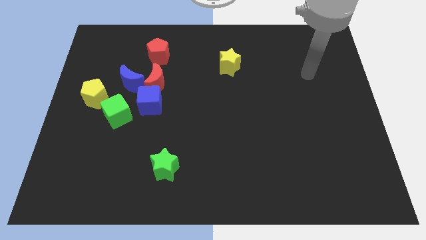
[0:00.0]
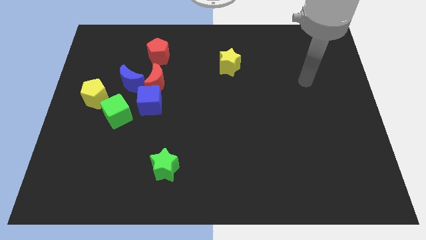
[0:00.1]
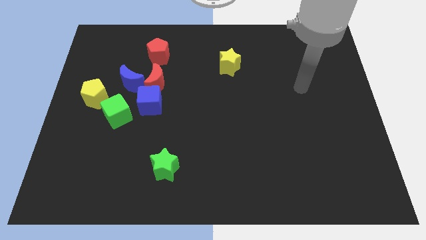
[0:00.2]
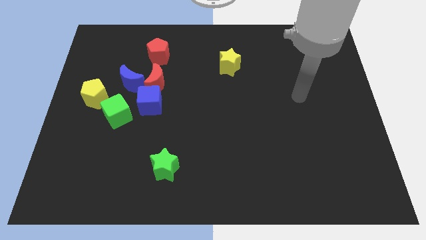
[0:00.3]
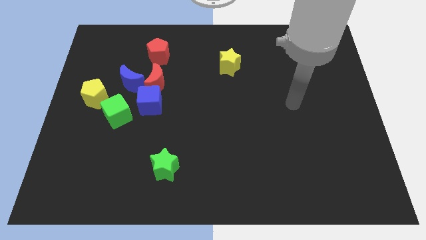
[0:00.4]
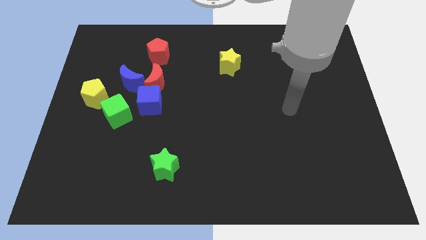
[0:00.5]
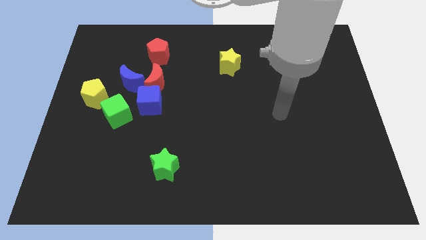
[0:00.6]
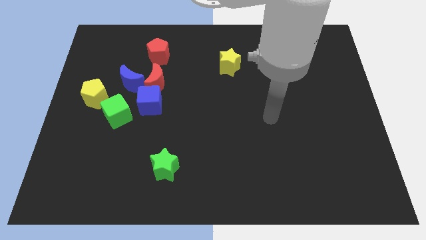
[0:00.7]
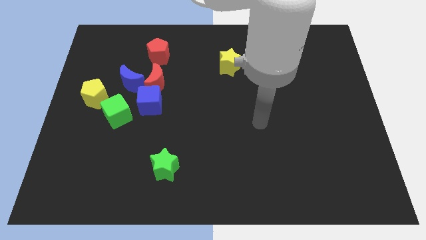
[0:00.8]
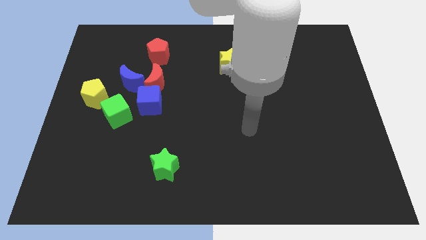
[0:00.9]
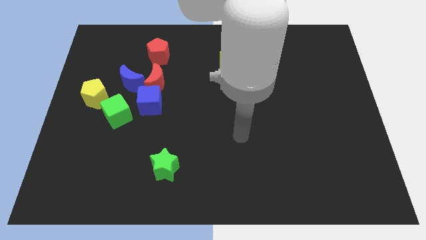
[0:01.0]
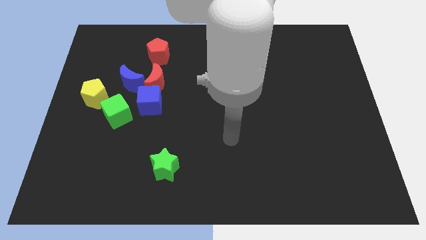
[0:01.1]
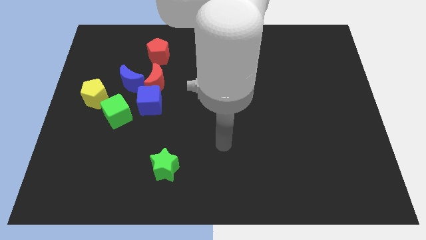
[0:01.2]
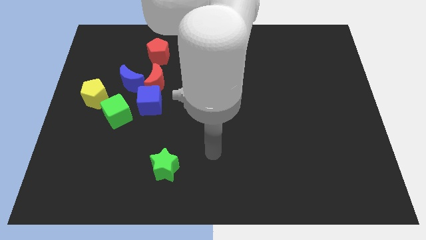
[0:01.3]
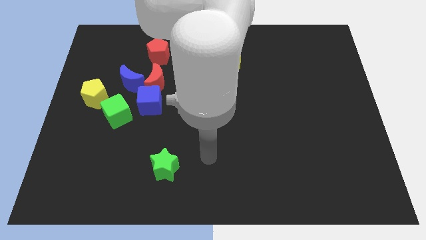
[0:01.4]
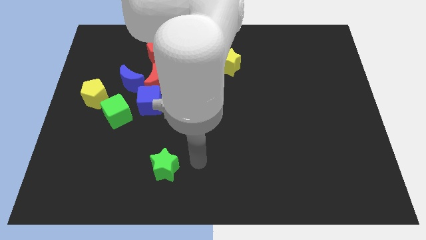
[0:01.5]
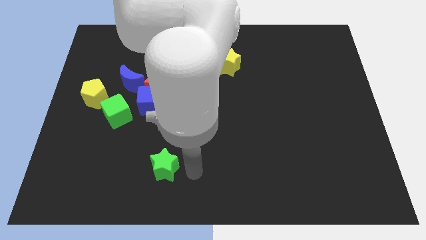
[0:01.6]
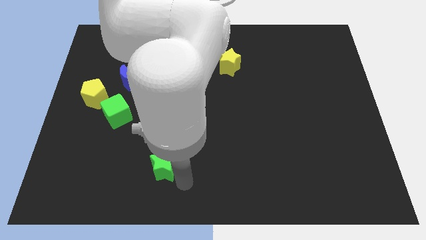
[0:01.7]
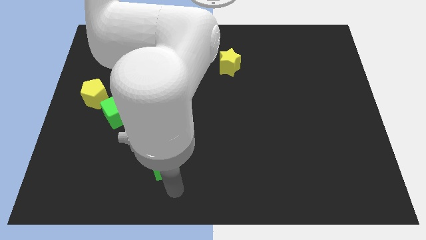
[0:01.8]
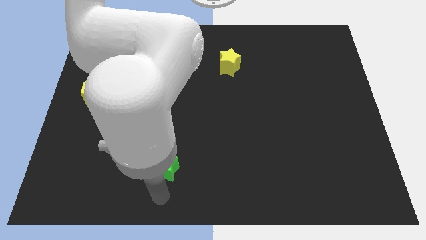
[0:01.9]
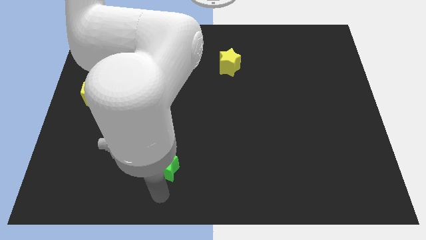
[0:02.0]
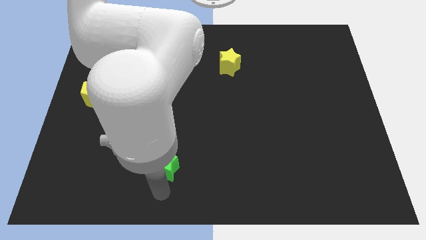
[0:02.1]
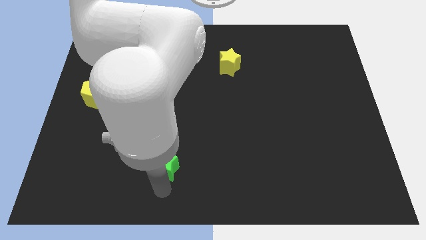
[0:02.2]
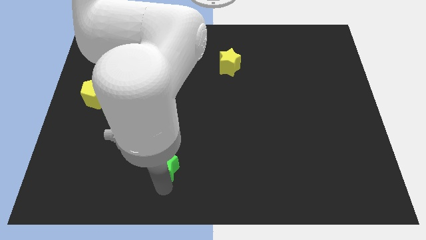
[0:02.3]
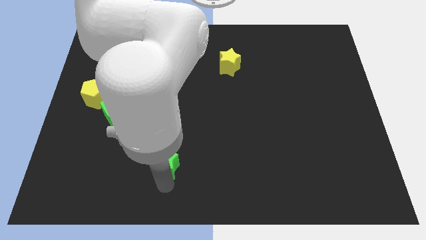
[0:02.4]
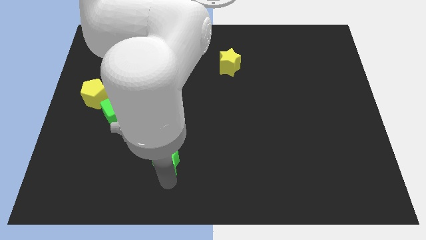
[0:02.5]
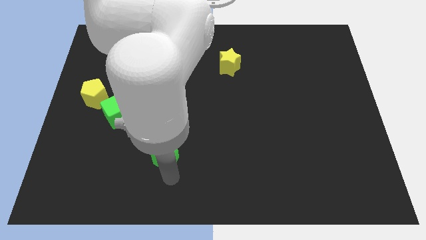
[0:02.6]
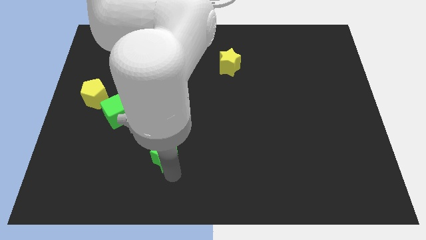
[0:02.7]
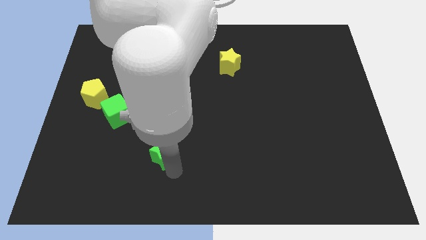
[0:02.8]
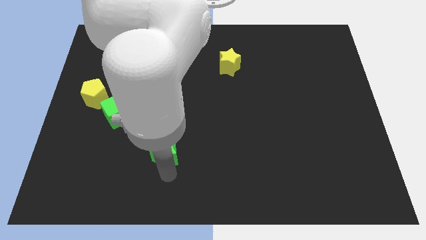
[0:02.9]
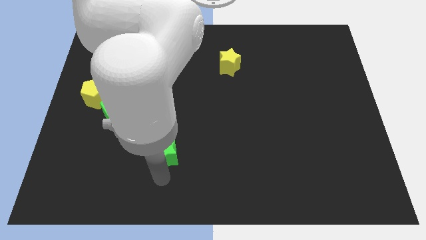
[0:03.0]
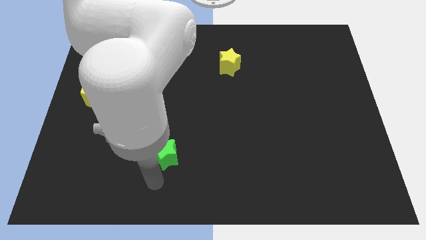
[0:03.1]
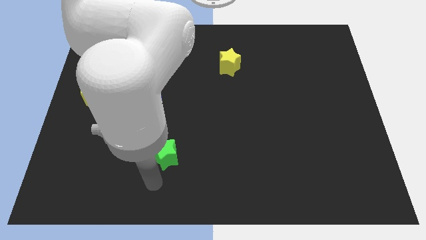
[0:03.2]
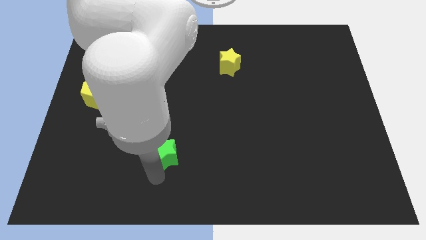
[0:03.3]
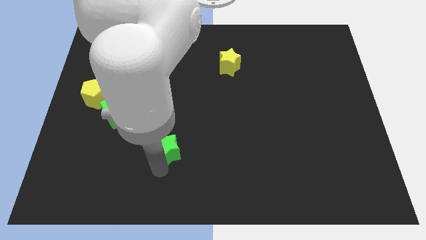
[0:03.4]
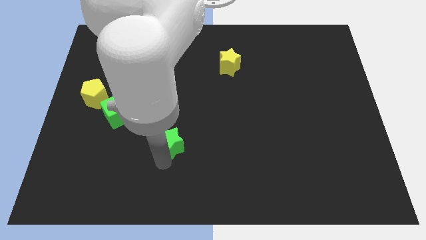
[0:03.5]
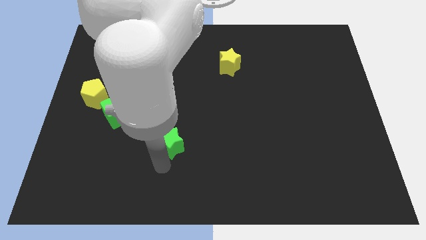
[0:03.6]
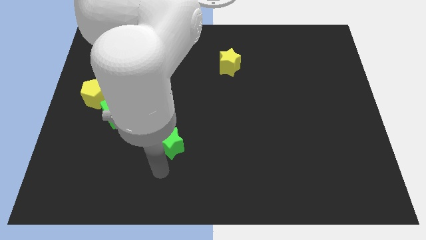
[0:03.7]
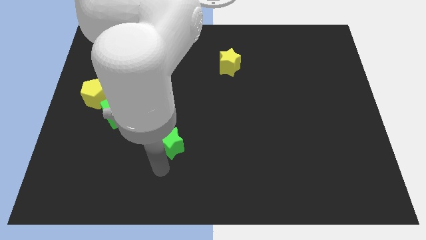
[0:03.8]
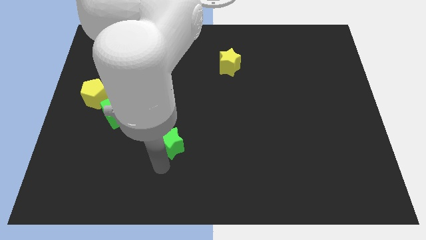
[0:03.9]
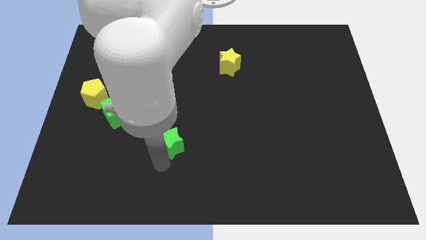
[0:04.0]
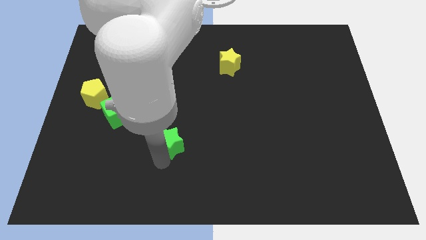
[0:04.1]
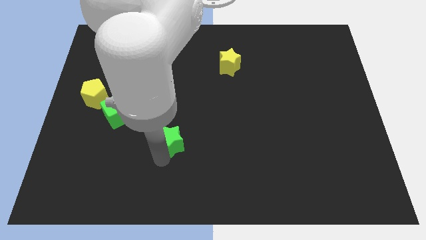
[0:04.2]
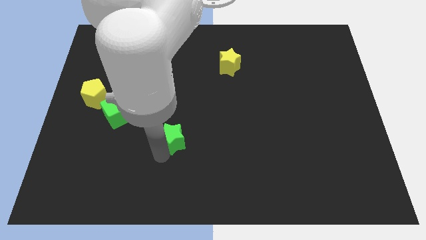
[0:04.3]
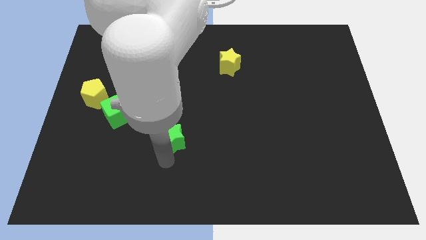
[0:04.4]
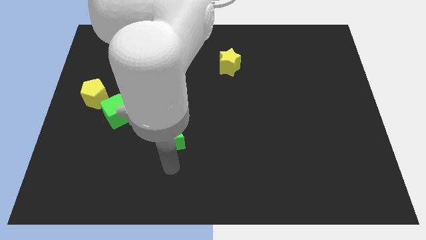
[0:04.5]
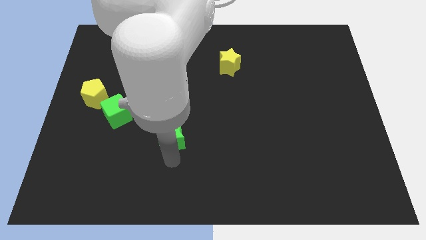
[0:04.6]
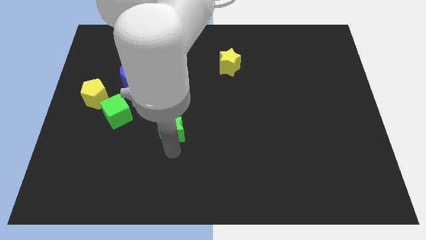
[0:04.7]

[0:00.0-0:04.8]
slightly move the green star upwards

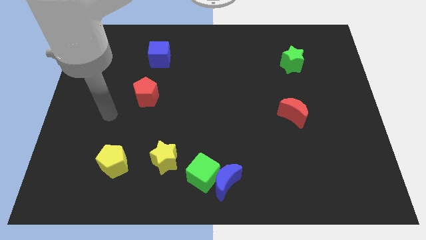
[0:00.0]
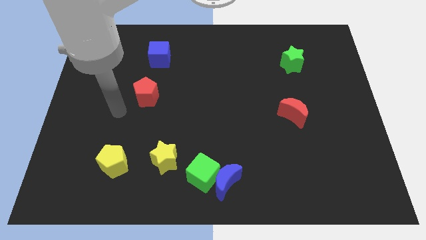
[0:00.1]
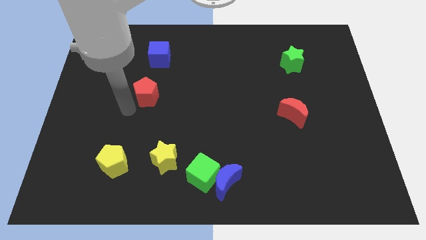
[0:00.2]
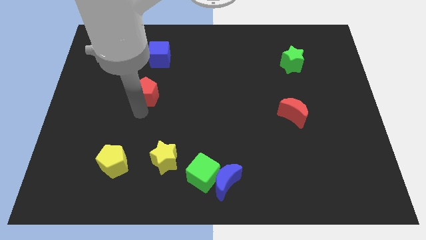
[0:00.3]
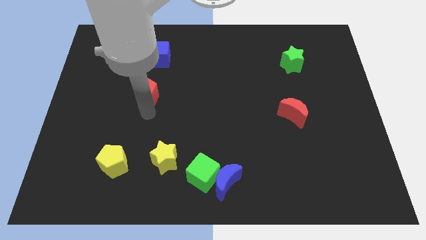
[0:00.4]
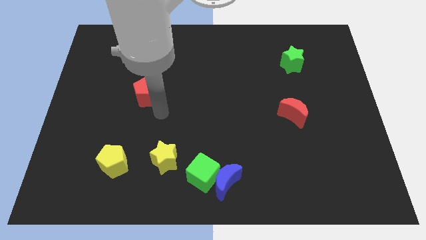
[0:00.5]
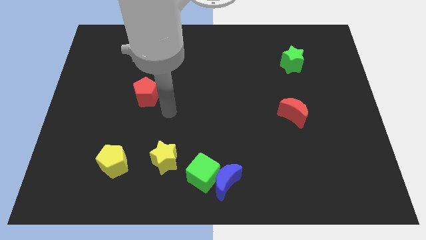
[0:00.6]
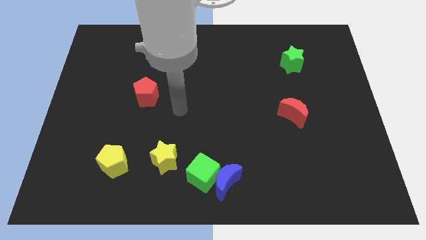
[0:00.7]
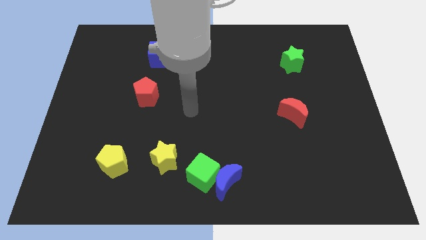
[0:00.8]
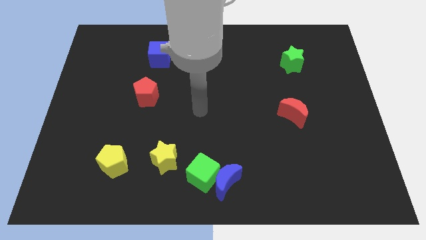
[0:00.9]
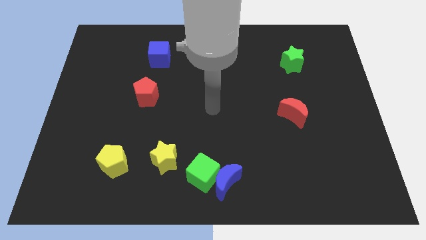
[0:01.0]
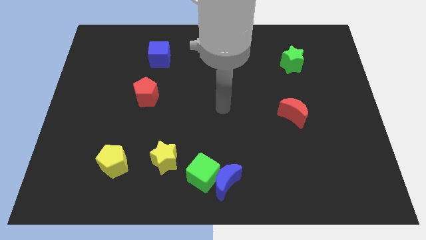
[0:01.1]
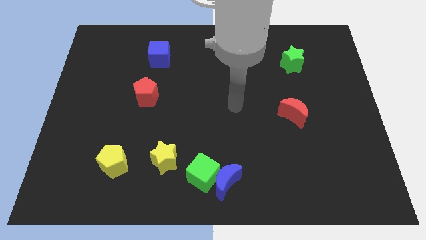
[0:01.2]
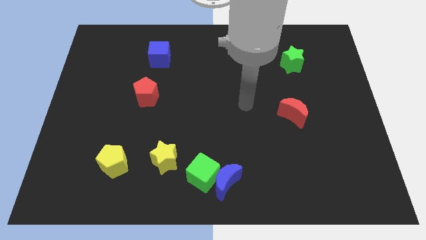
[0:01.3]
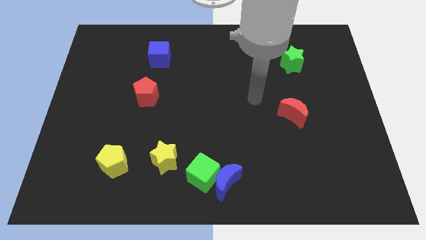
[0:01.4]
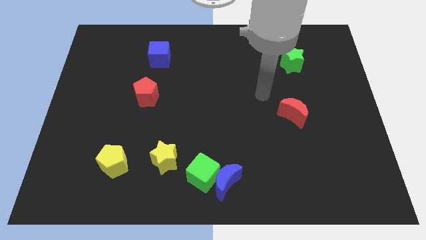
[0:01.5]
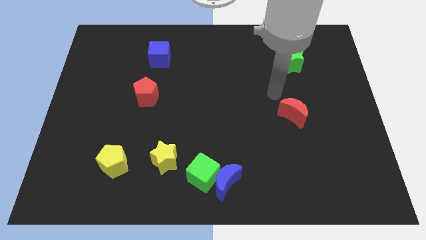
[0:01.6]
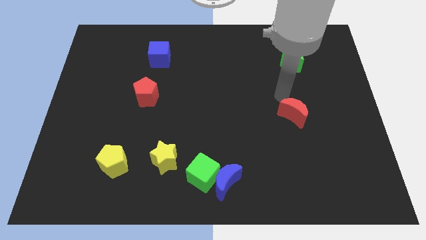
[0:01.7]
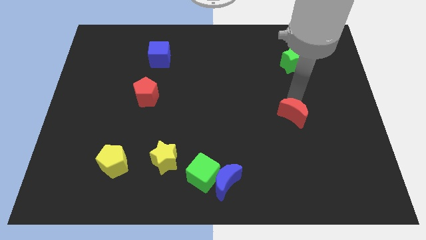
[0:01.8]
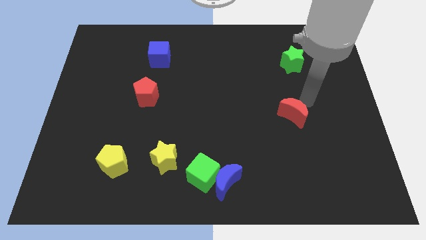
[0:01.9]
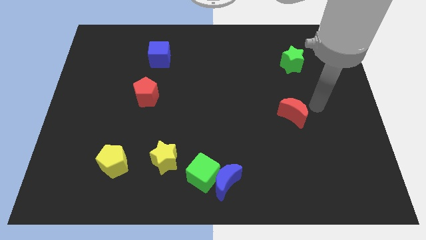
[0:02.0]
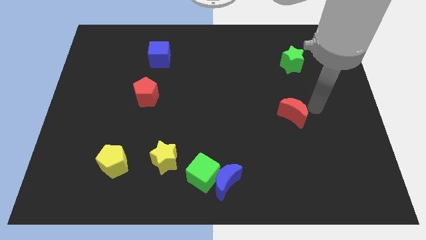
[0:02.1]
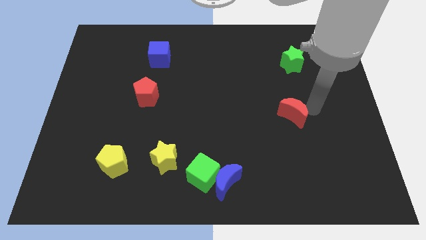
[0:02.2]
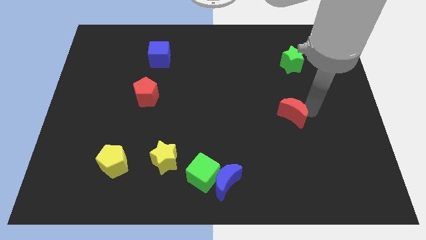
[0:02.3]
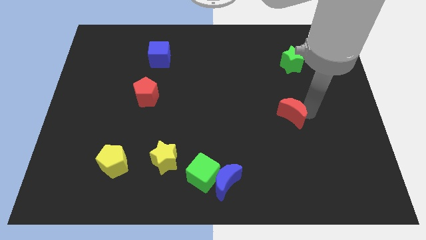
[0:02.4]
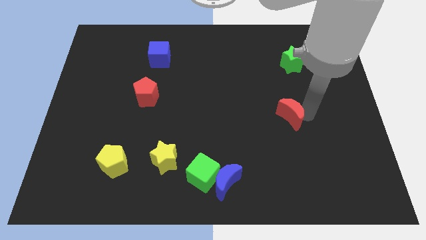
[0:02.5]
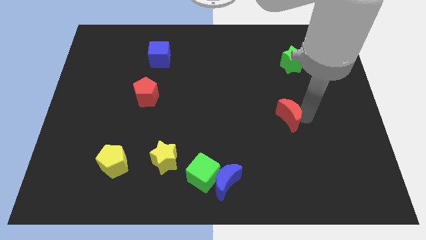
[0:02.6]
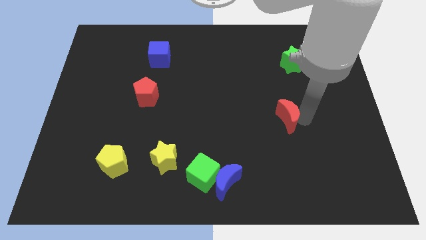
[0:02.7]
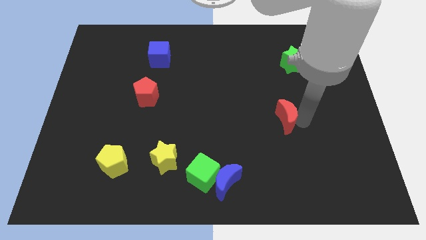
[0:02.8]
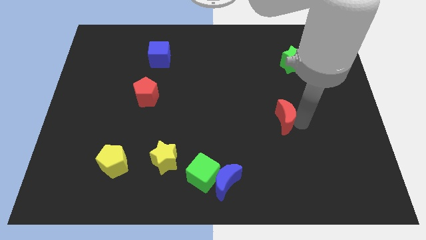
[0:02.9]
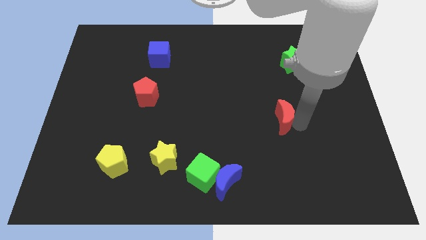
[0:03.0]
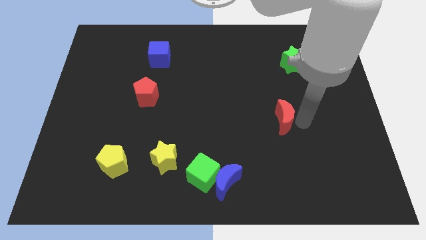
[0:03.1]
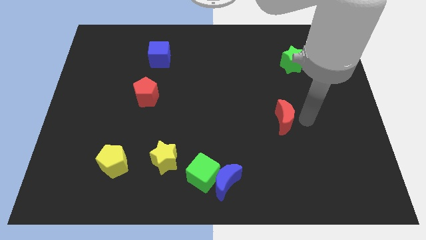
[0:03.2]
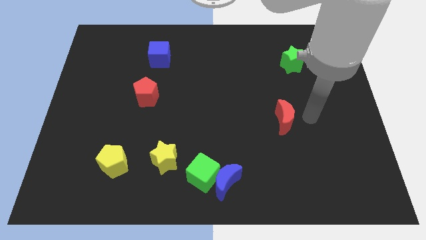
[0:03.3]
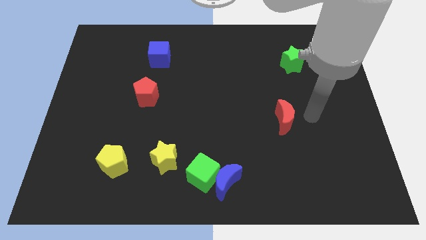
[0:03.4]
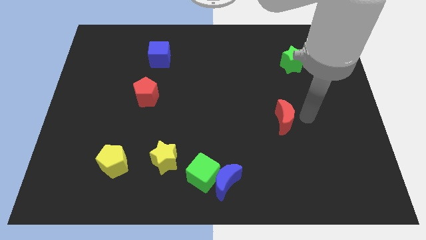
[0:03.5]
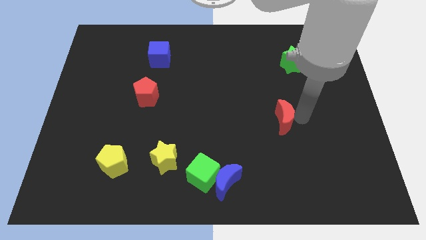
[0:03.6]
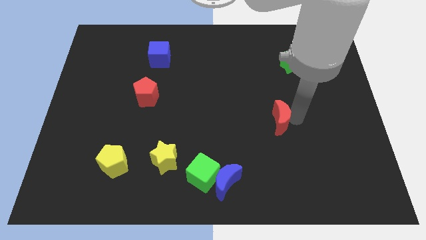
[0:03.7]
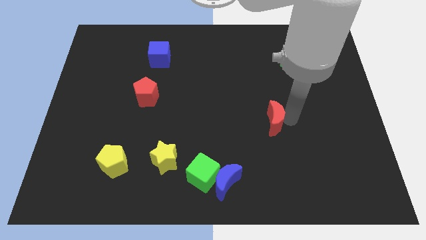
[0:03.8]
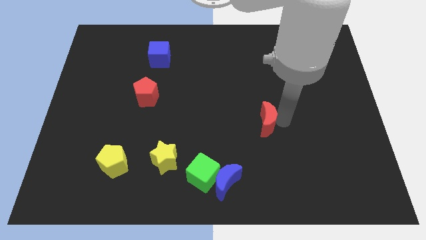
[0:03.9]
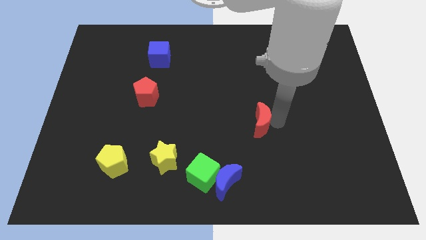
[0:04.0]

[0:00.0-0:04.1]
slightly move the red moon to the left
